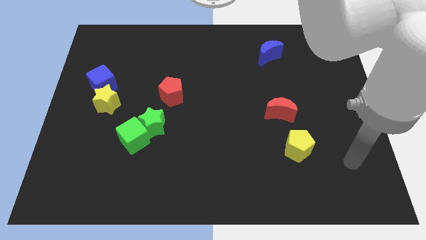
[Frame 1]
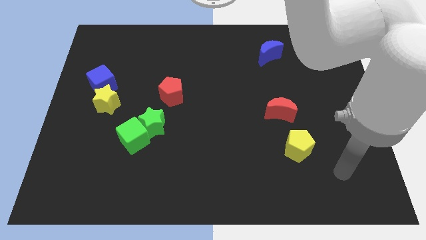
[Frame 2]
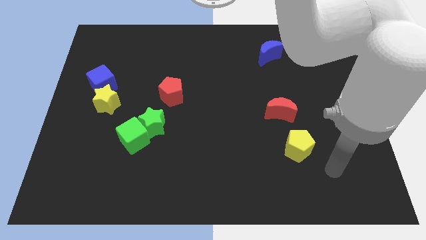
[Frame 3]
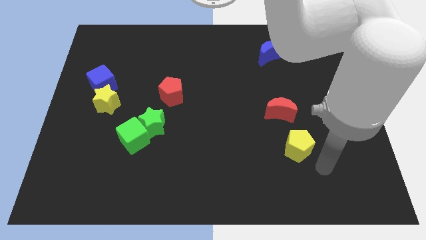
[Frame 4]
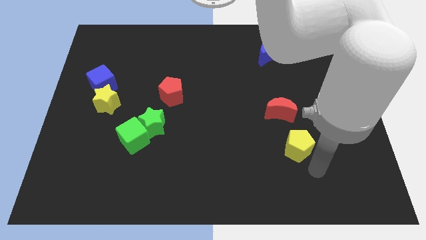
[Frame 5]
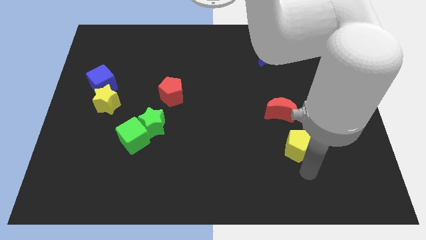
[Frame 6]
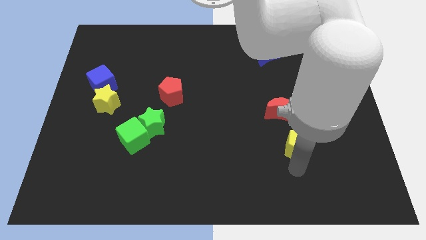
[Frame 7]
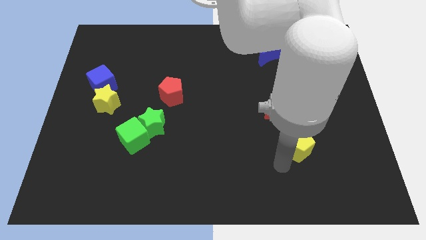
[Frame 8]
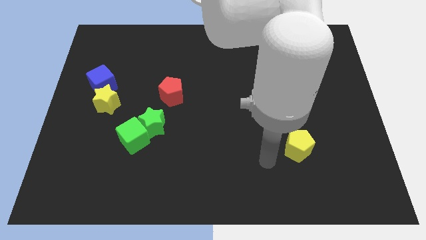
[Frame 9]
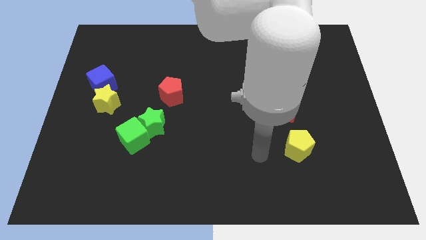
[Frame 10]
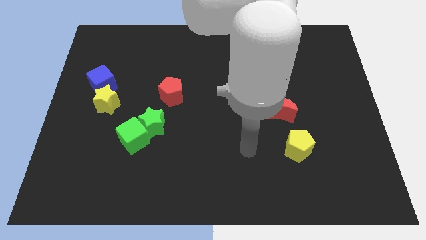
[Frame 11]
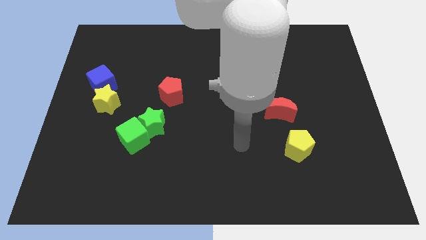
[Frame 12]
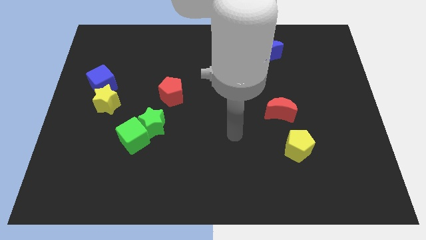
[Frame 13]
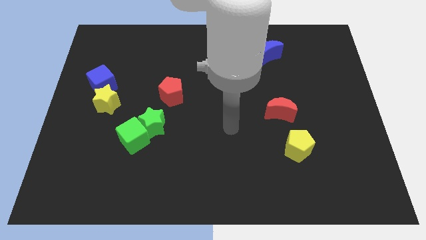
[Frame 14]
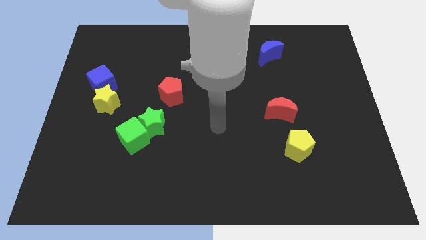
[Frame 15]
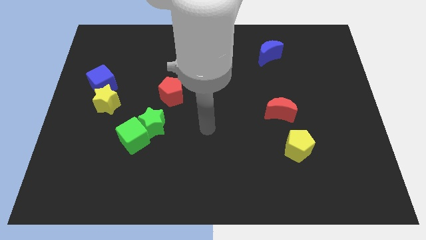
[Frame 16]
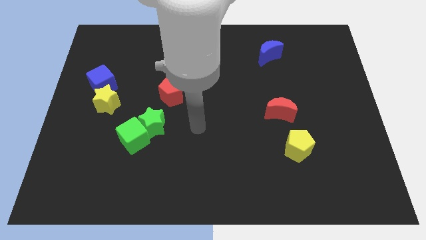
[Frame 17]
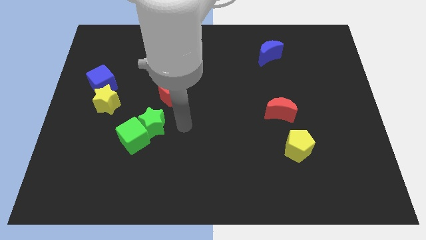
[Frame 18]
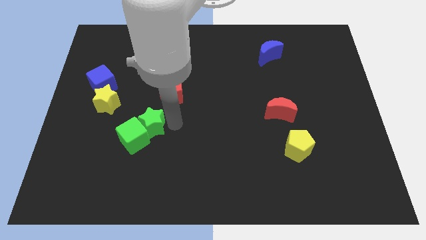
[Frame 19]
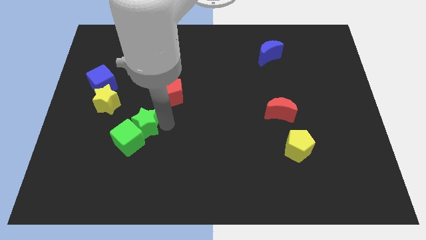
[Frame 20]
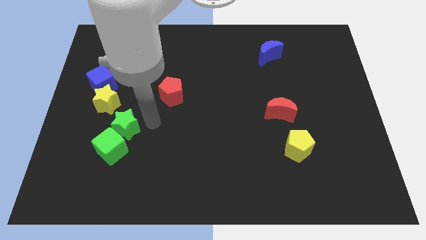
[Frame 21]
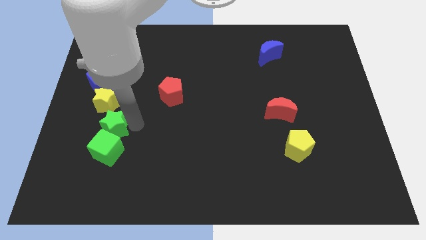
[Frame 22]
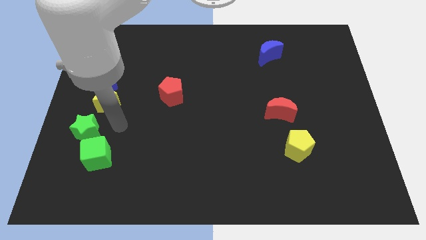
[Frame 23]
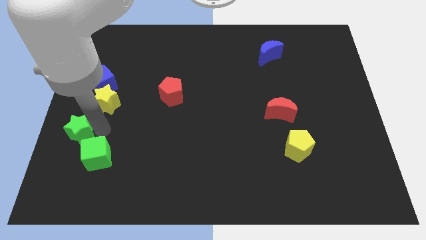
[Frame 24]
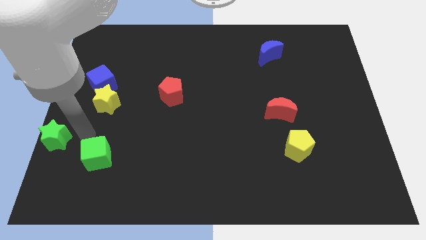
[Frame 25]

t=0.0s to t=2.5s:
pull the green cube apart from the green star

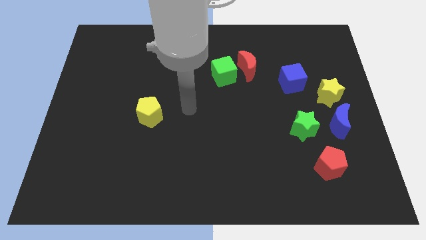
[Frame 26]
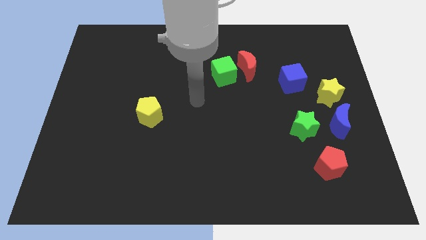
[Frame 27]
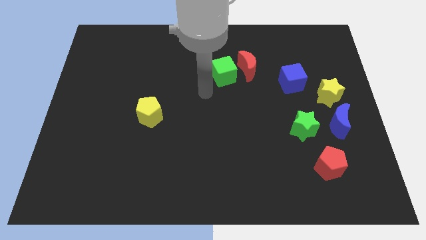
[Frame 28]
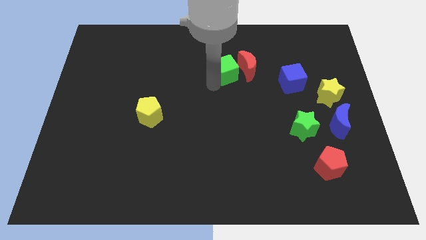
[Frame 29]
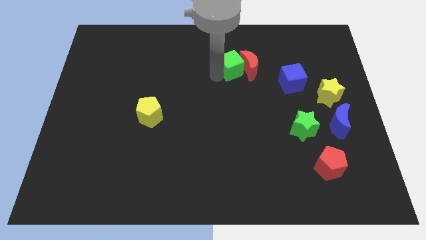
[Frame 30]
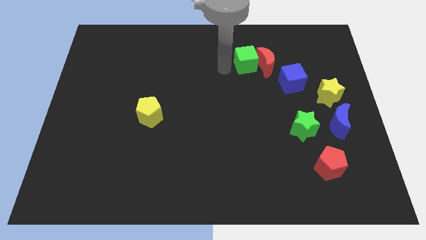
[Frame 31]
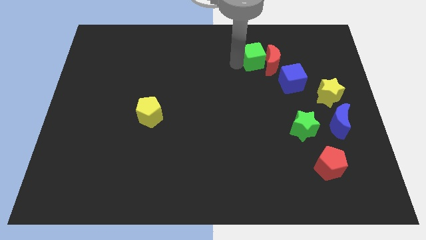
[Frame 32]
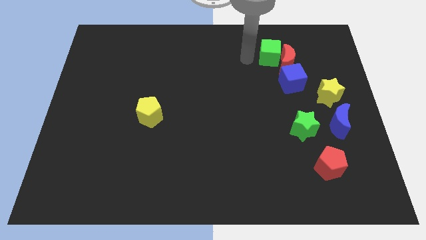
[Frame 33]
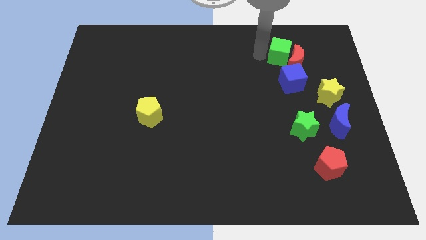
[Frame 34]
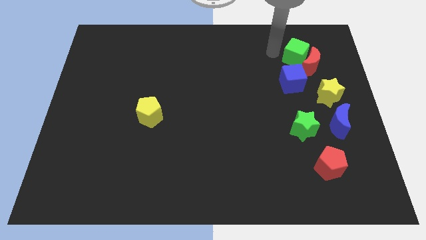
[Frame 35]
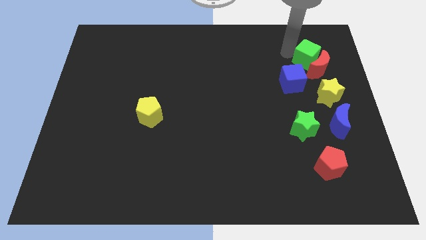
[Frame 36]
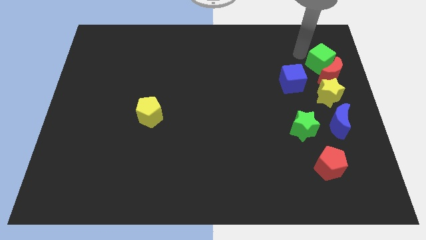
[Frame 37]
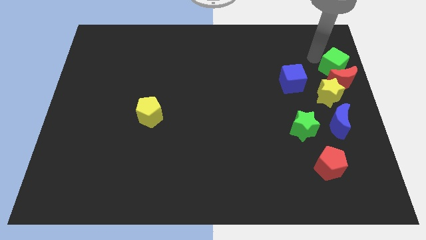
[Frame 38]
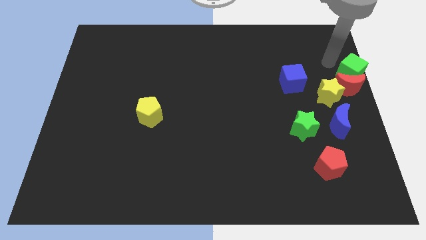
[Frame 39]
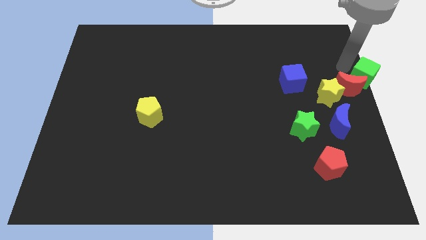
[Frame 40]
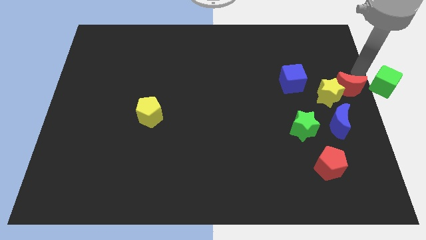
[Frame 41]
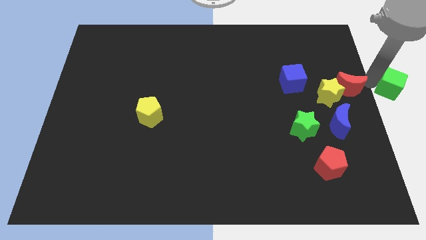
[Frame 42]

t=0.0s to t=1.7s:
move the red moon away from the green cube

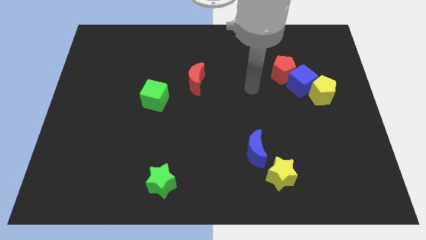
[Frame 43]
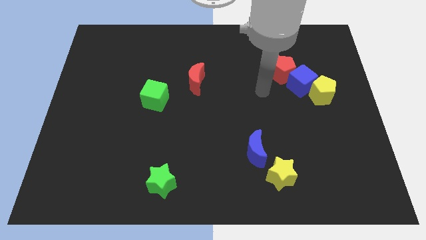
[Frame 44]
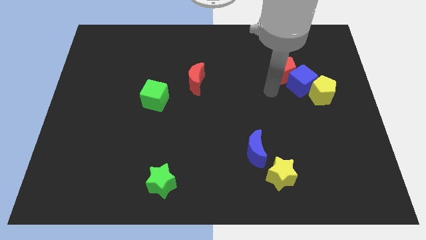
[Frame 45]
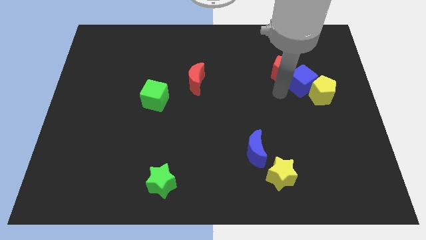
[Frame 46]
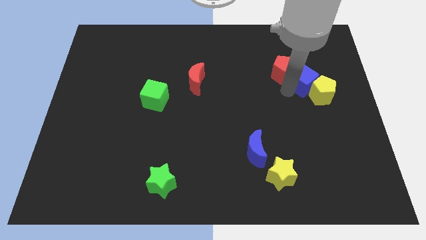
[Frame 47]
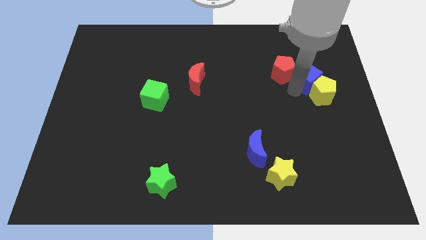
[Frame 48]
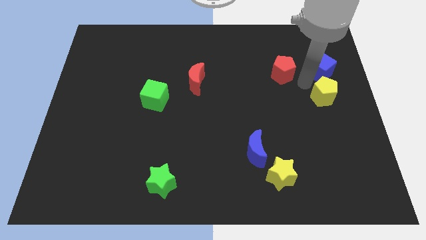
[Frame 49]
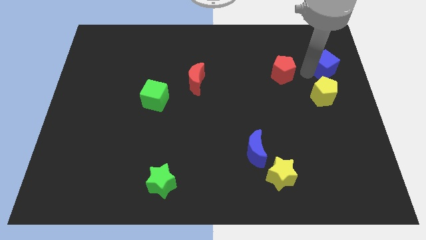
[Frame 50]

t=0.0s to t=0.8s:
pull the red pentagon apart from the blue cube

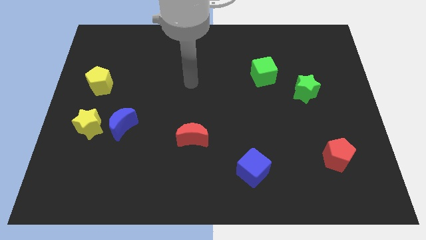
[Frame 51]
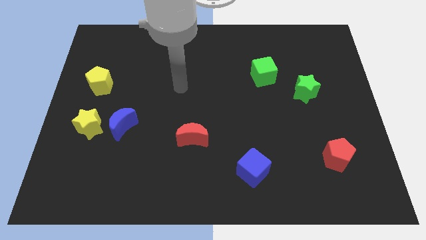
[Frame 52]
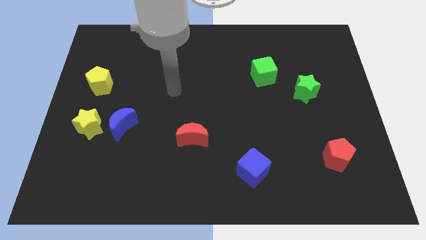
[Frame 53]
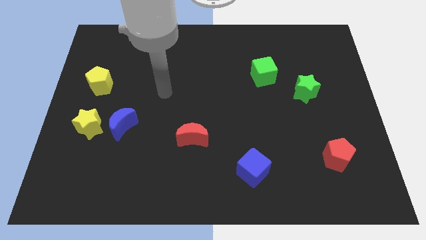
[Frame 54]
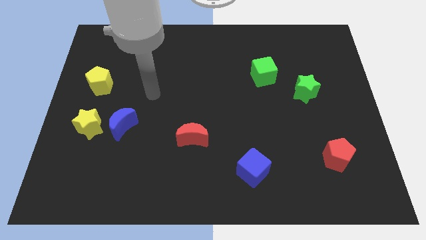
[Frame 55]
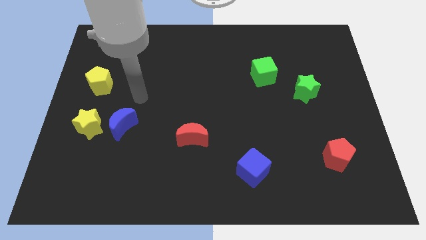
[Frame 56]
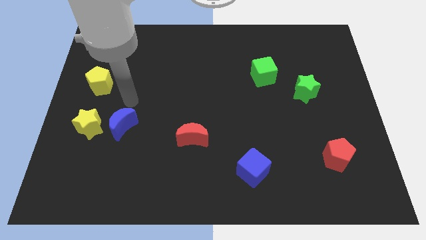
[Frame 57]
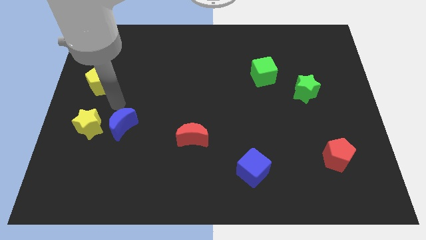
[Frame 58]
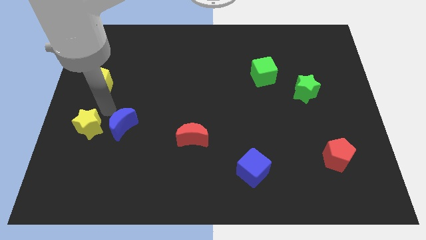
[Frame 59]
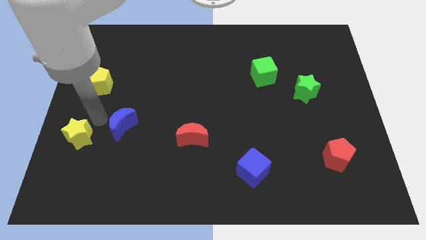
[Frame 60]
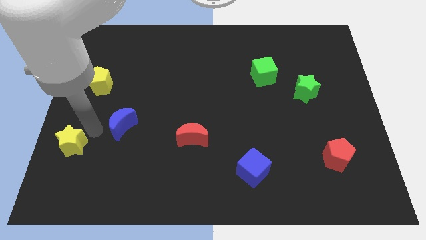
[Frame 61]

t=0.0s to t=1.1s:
pull the blue moon apart from the yellow star

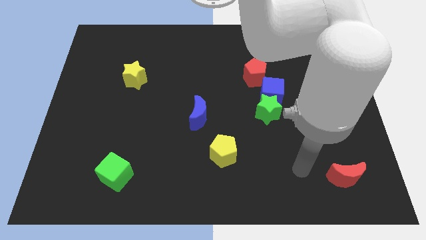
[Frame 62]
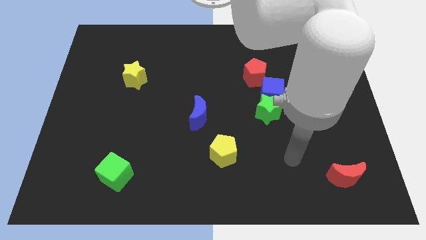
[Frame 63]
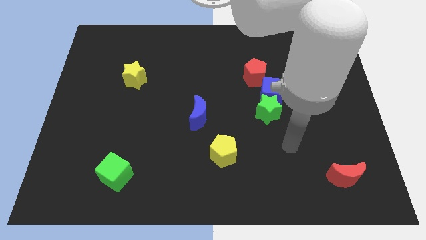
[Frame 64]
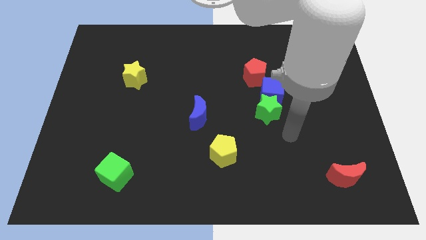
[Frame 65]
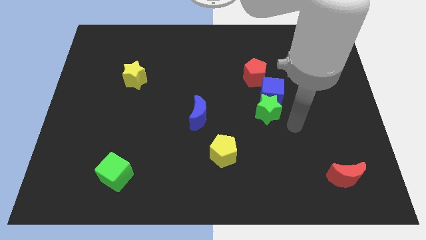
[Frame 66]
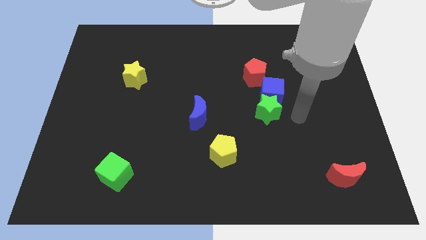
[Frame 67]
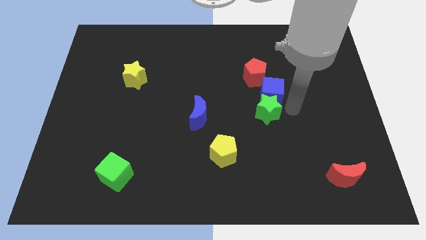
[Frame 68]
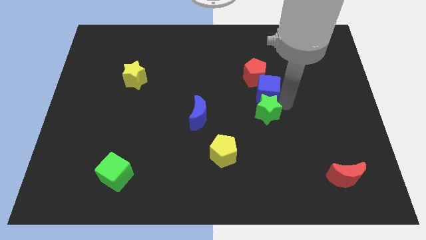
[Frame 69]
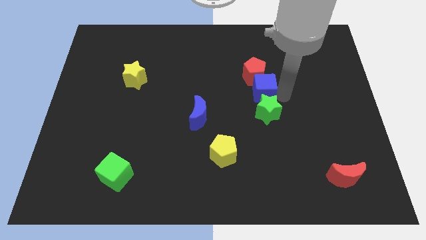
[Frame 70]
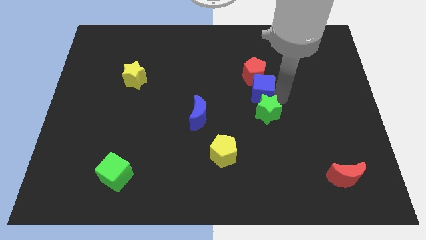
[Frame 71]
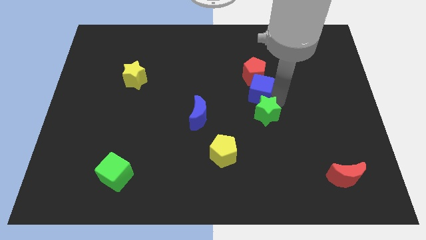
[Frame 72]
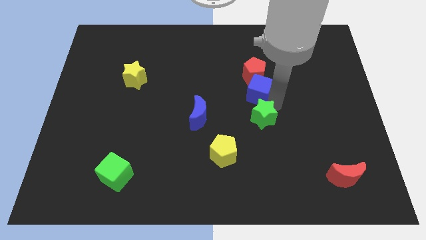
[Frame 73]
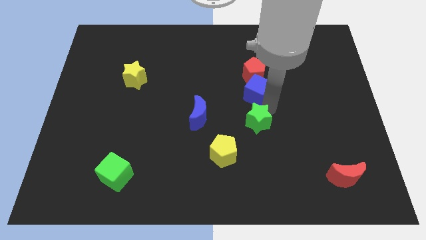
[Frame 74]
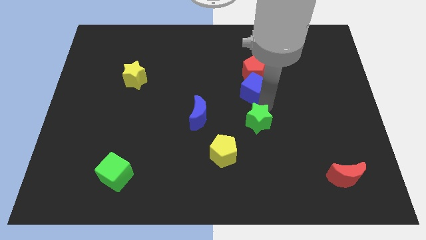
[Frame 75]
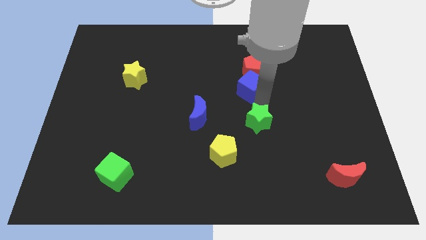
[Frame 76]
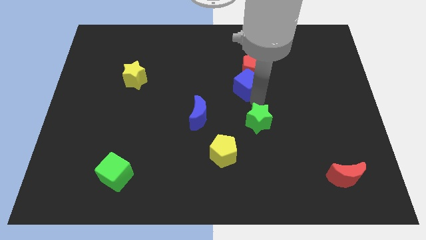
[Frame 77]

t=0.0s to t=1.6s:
separate the green star from the blue cube

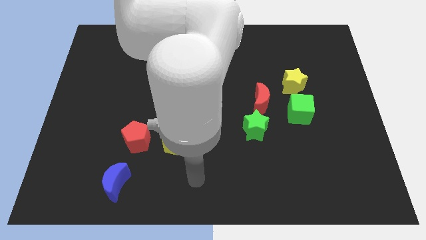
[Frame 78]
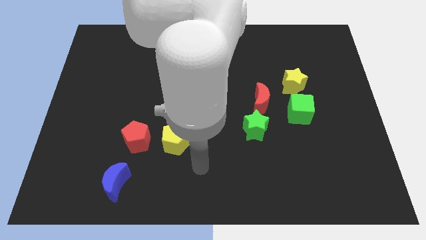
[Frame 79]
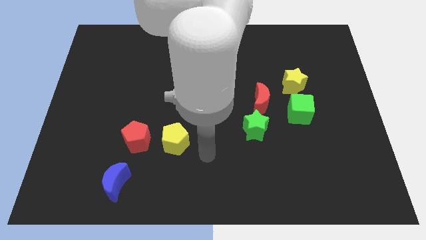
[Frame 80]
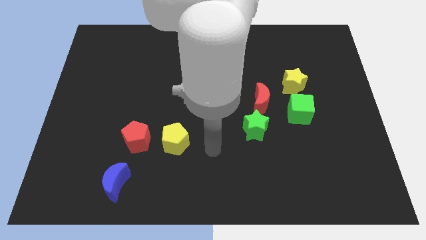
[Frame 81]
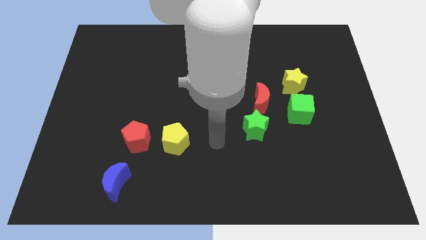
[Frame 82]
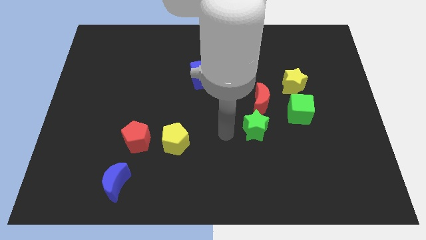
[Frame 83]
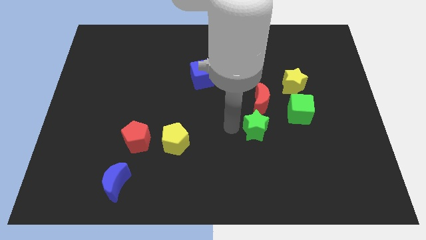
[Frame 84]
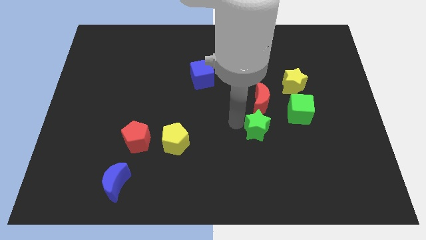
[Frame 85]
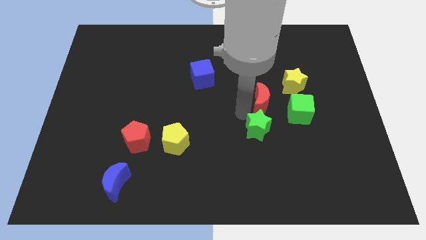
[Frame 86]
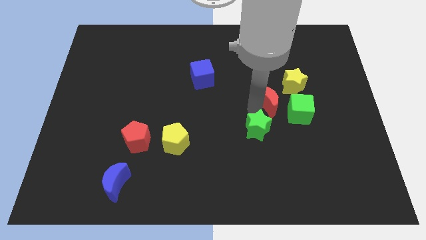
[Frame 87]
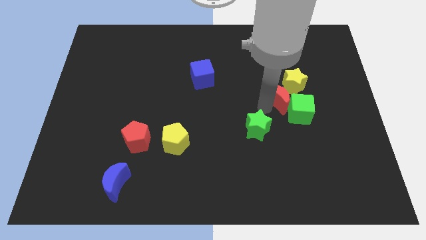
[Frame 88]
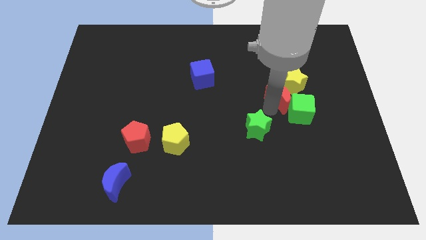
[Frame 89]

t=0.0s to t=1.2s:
move the green star away from the red moon

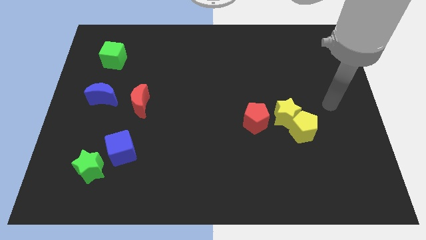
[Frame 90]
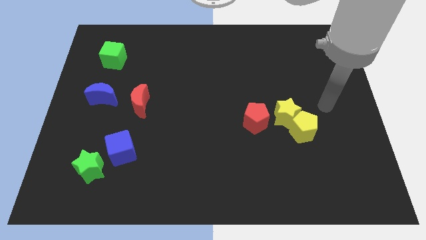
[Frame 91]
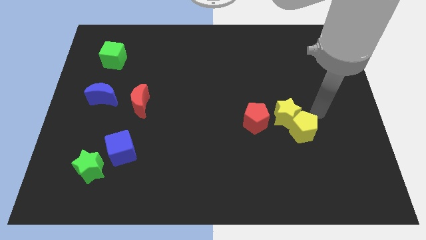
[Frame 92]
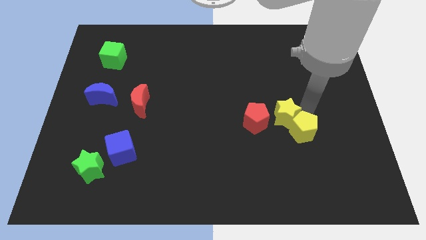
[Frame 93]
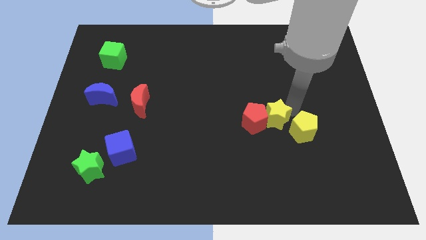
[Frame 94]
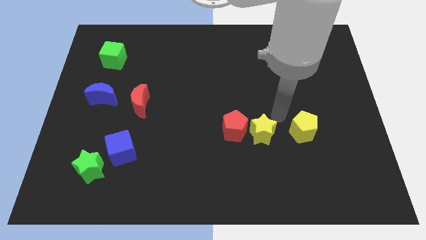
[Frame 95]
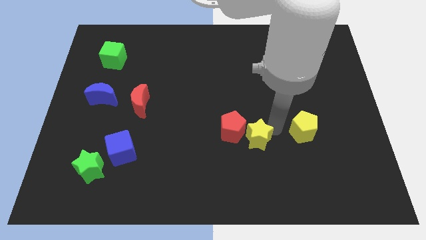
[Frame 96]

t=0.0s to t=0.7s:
move the yellow pentagon away from the yellow star
